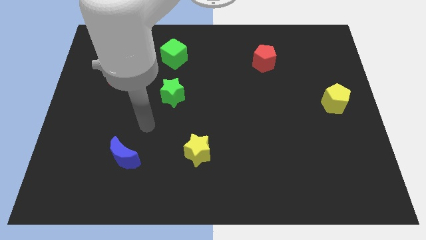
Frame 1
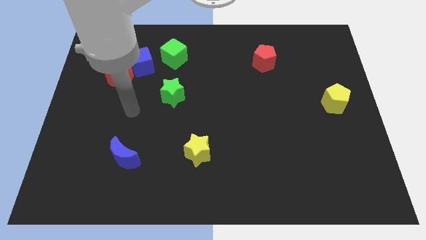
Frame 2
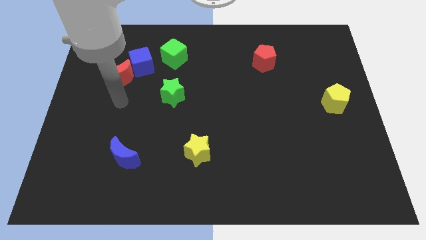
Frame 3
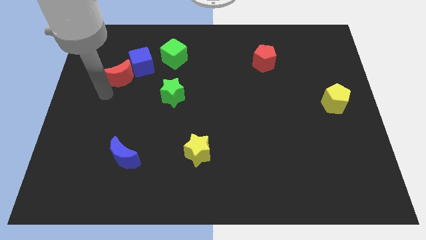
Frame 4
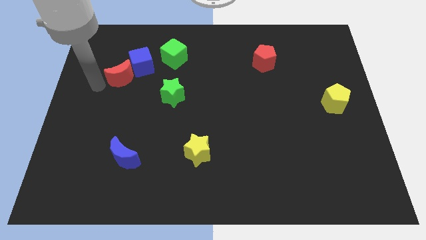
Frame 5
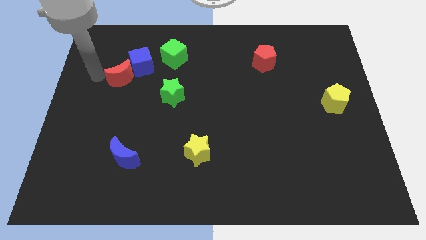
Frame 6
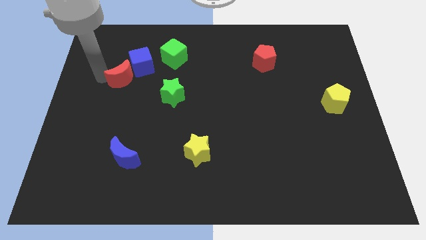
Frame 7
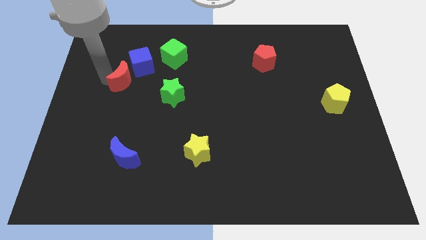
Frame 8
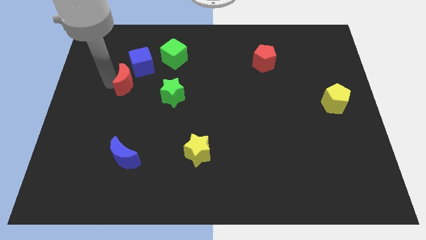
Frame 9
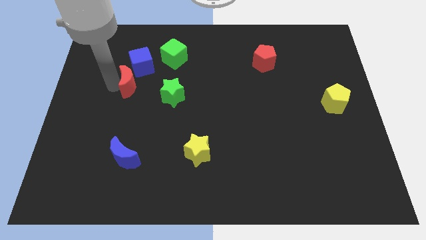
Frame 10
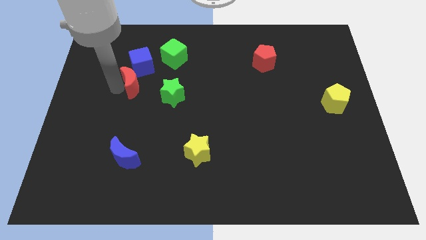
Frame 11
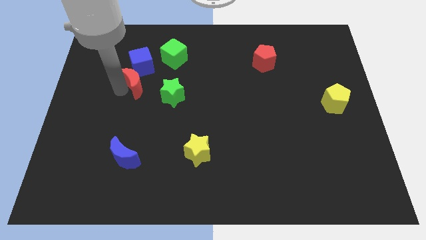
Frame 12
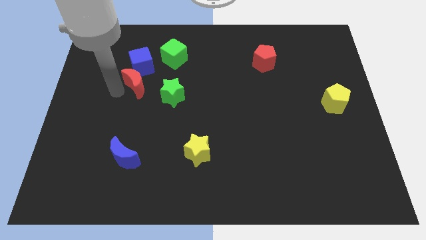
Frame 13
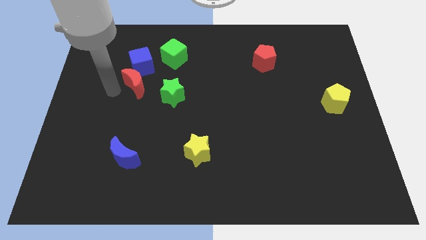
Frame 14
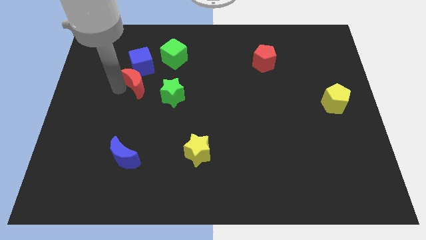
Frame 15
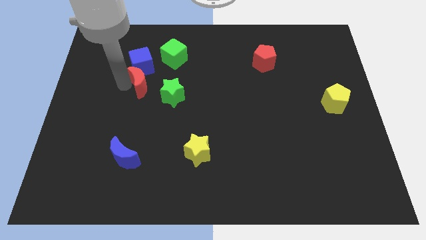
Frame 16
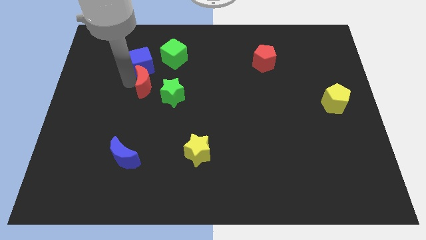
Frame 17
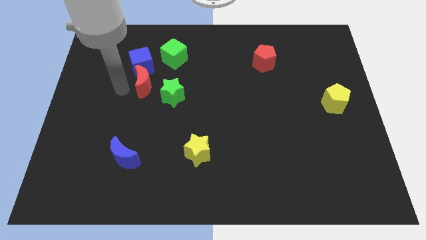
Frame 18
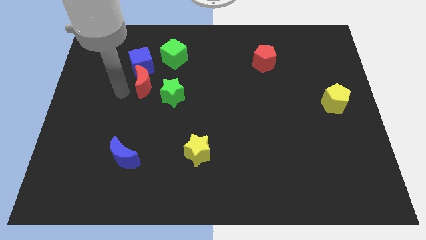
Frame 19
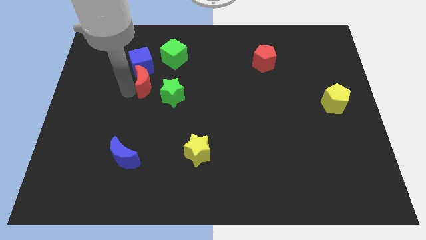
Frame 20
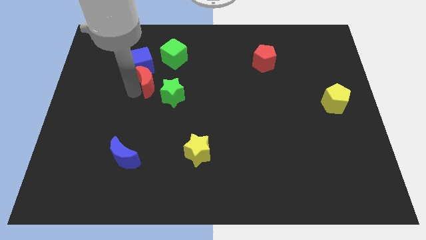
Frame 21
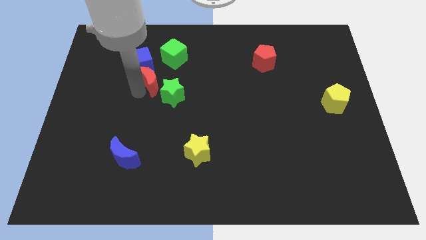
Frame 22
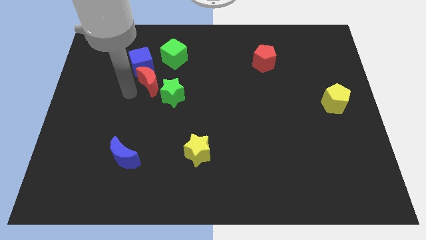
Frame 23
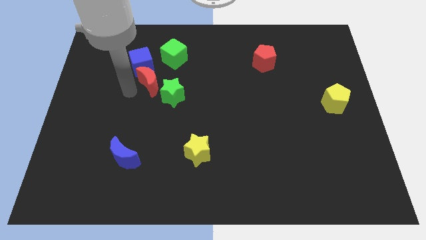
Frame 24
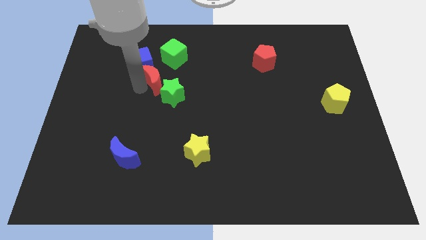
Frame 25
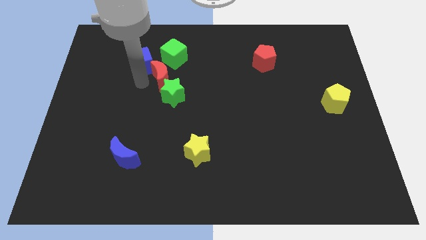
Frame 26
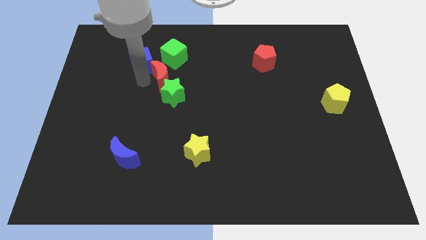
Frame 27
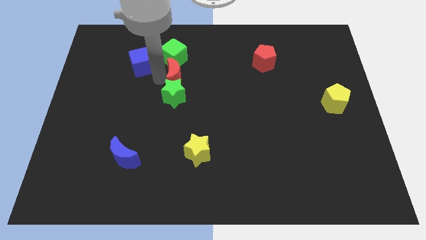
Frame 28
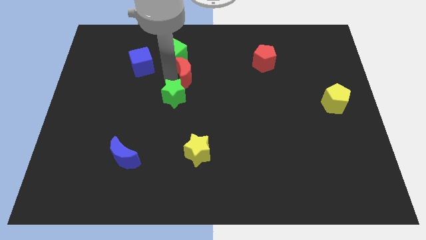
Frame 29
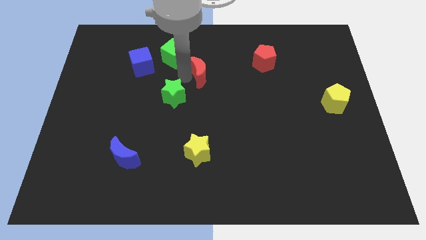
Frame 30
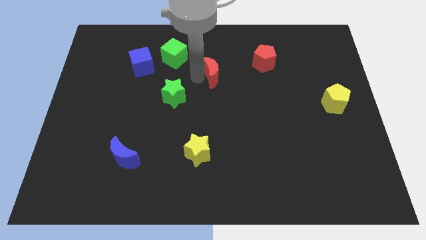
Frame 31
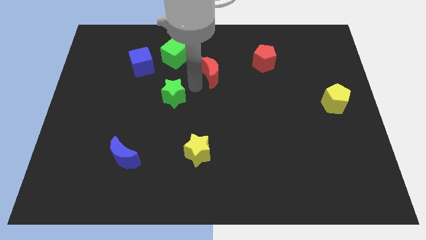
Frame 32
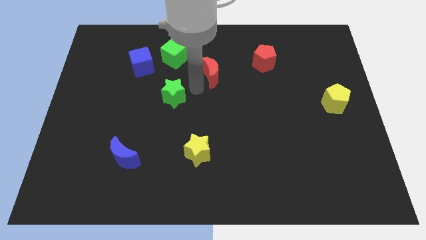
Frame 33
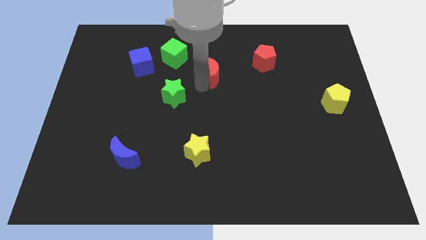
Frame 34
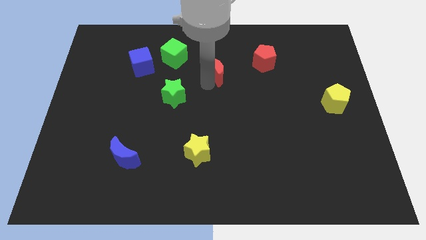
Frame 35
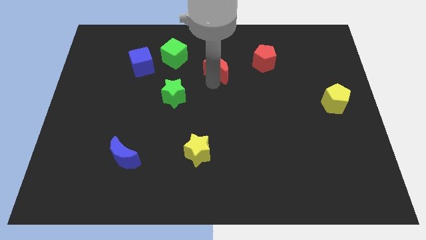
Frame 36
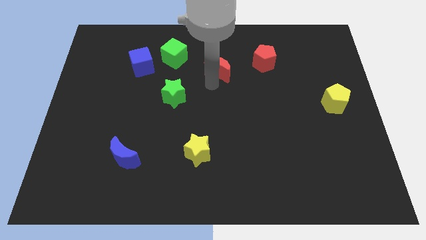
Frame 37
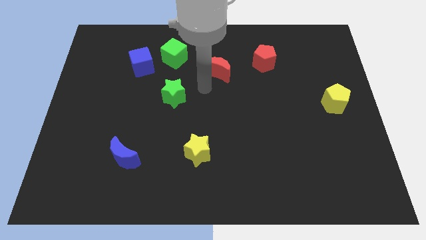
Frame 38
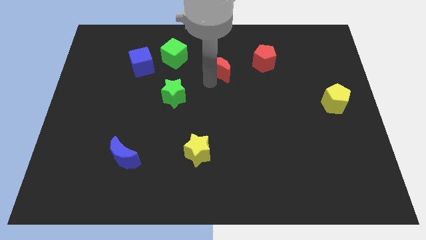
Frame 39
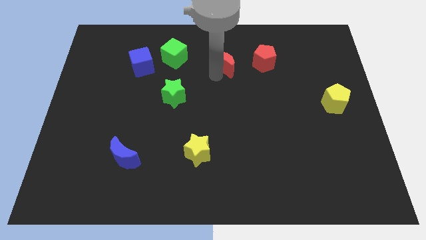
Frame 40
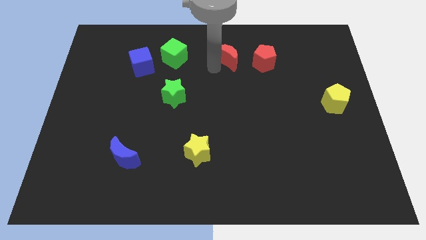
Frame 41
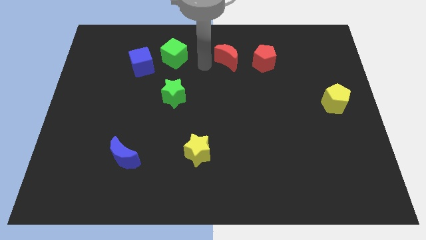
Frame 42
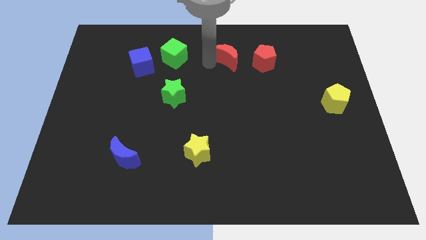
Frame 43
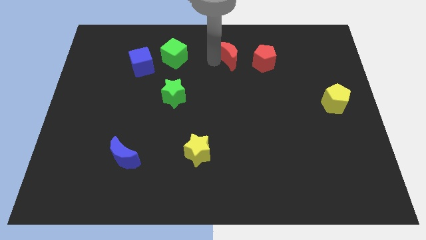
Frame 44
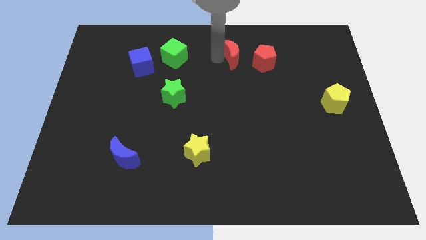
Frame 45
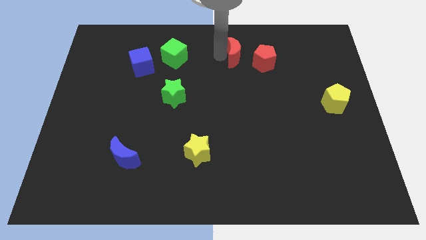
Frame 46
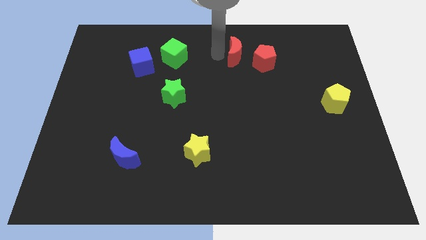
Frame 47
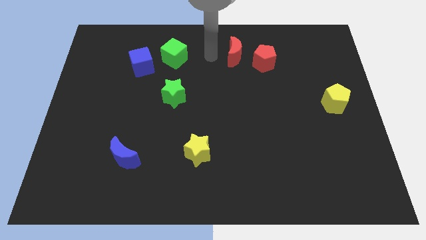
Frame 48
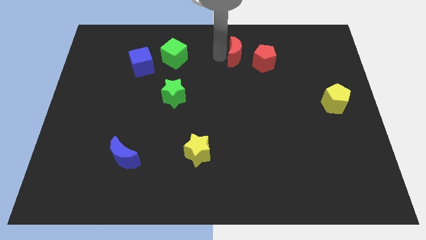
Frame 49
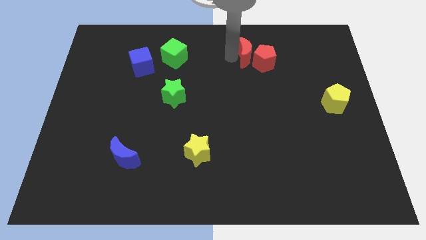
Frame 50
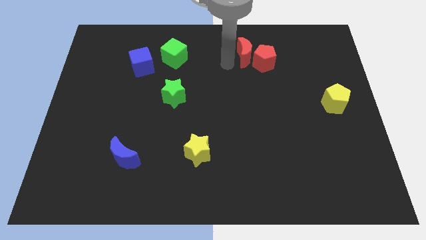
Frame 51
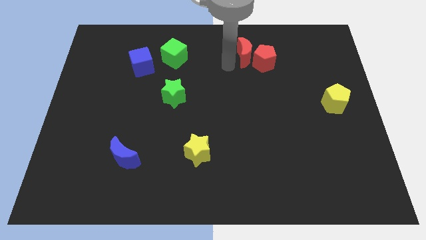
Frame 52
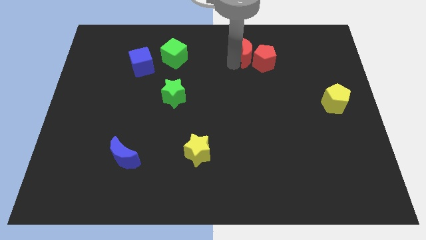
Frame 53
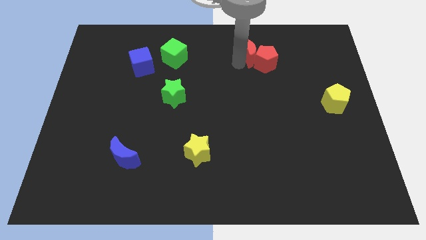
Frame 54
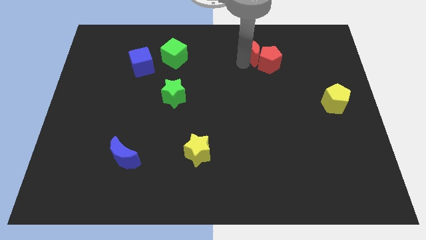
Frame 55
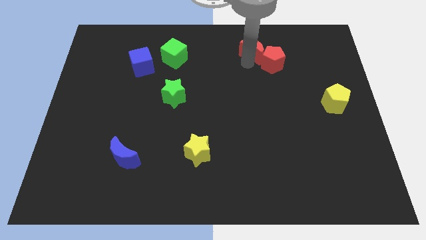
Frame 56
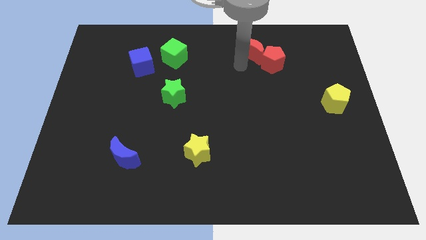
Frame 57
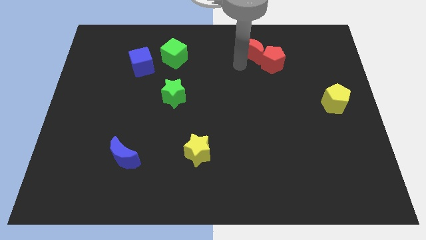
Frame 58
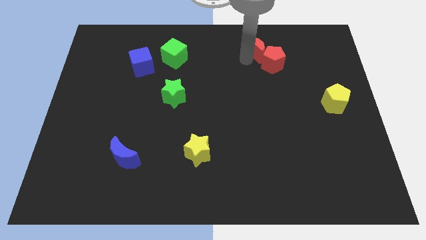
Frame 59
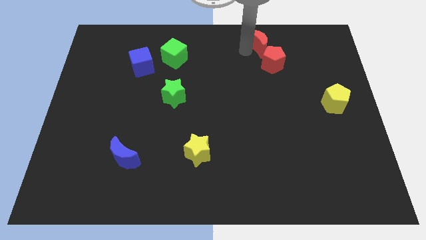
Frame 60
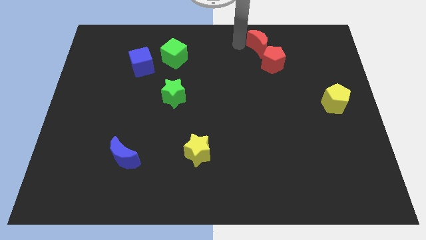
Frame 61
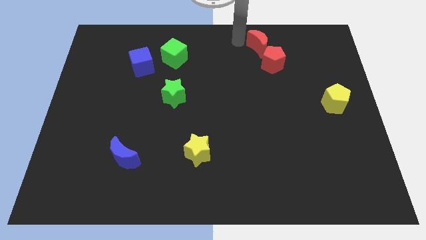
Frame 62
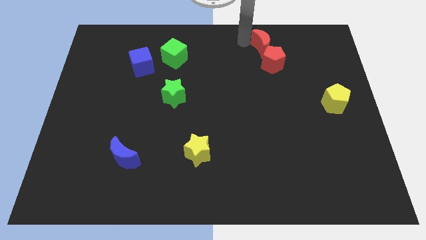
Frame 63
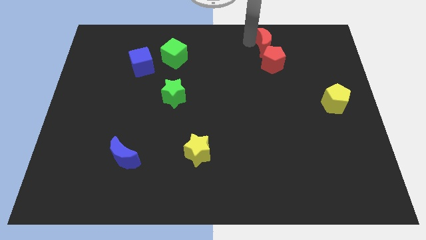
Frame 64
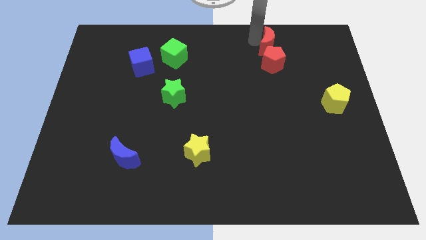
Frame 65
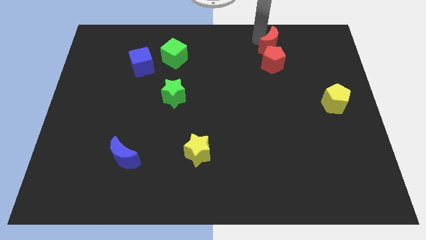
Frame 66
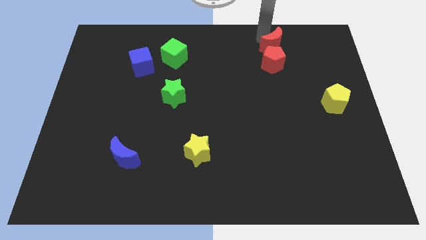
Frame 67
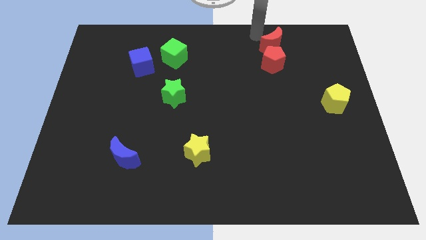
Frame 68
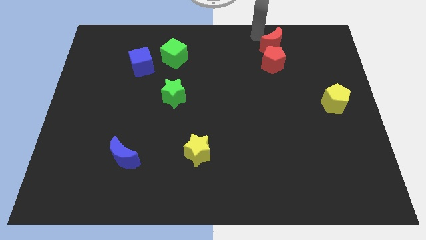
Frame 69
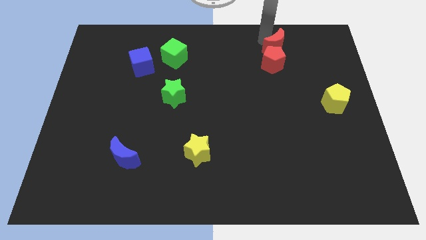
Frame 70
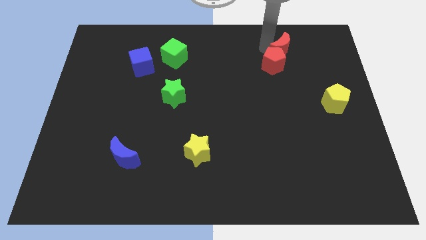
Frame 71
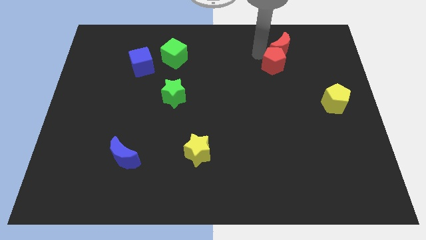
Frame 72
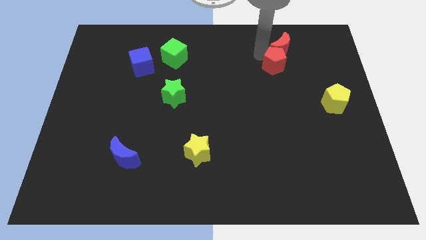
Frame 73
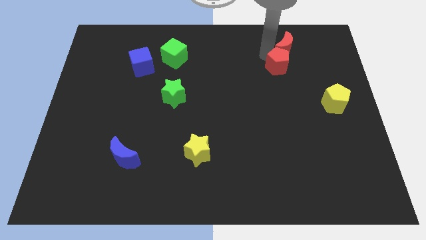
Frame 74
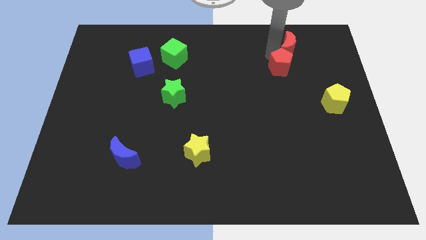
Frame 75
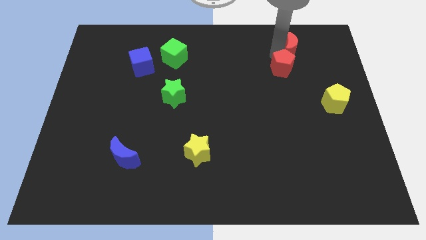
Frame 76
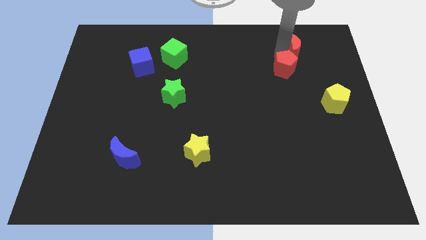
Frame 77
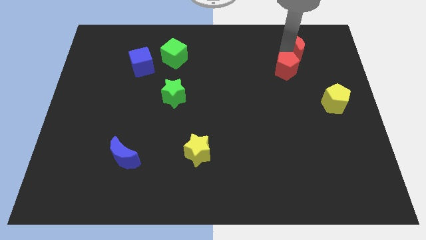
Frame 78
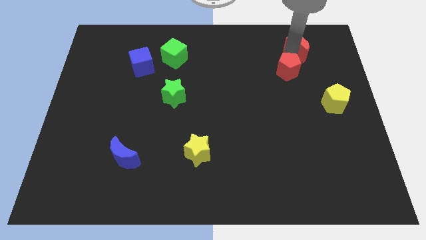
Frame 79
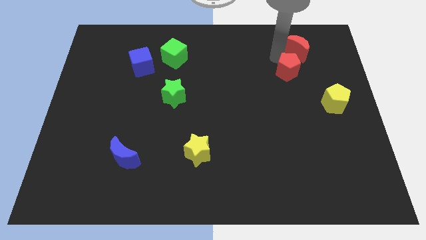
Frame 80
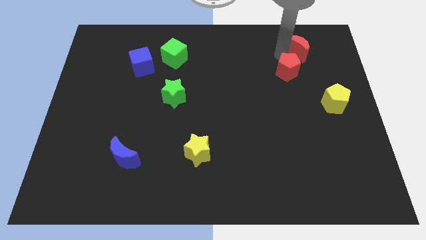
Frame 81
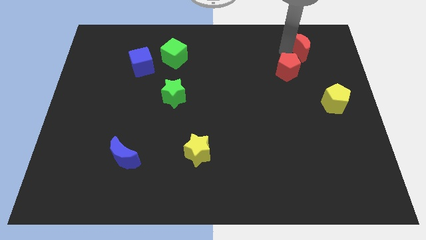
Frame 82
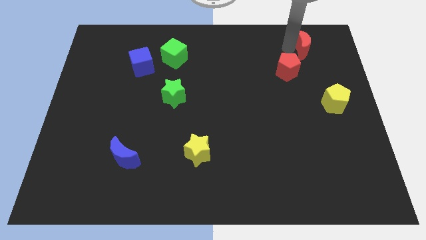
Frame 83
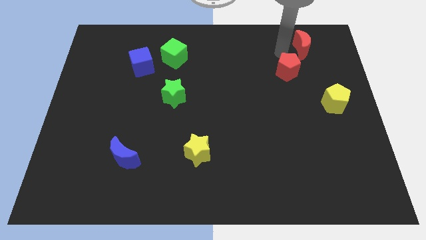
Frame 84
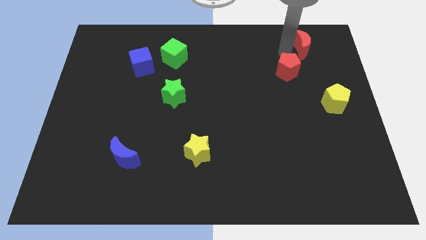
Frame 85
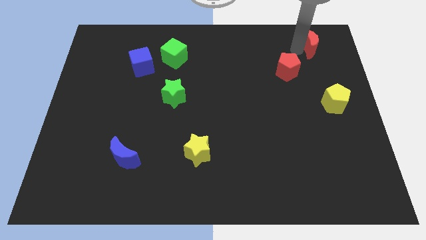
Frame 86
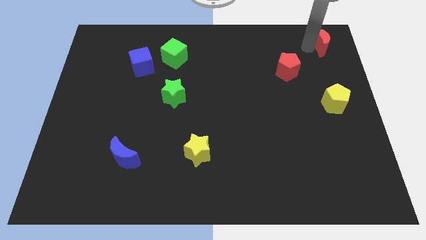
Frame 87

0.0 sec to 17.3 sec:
move the red moon to the top right
